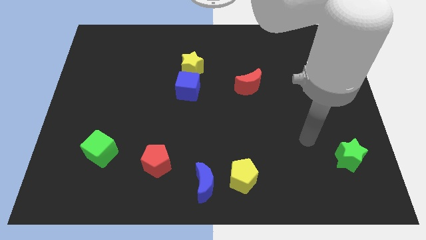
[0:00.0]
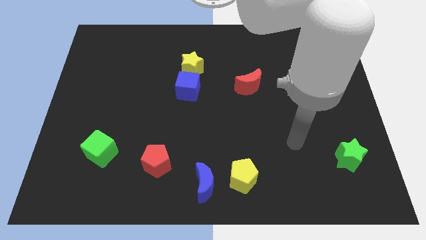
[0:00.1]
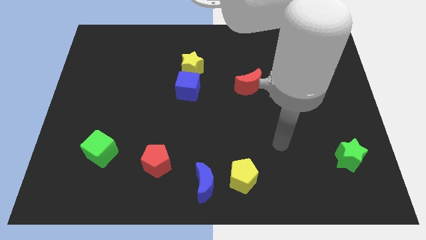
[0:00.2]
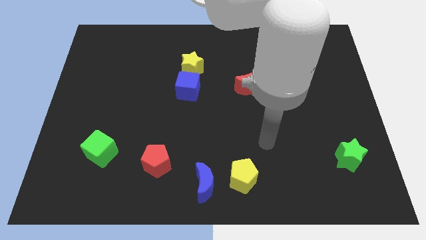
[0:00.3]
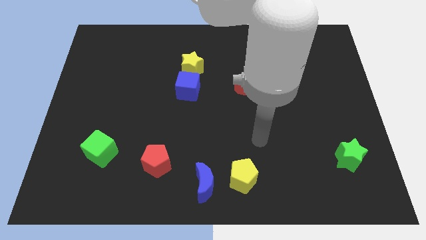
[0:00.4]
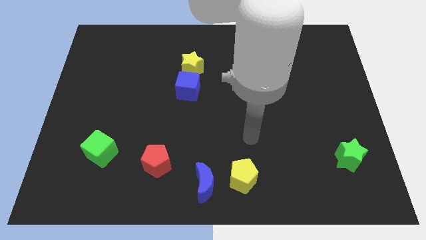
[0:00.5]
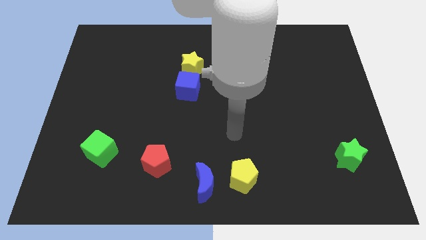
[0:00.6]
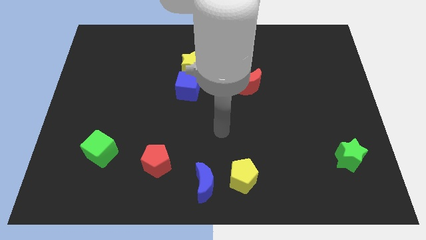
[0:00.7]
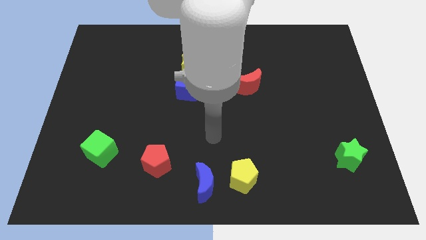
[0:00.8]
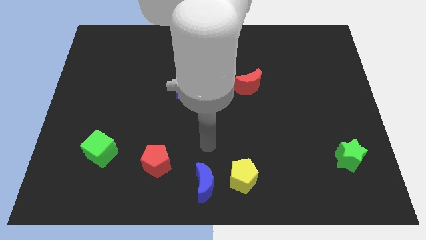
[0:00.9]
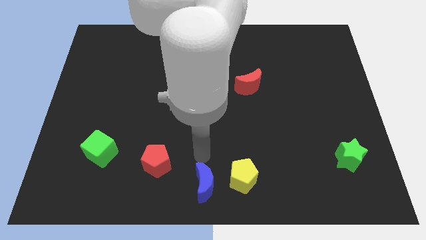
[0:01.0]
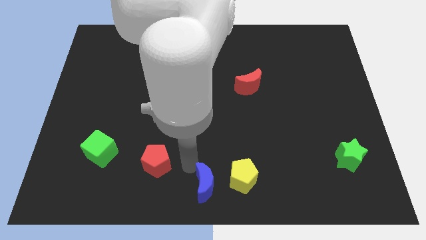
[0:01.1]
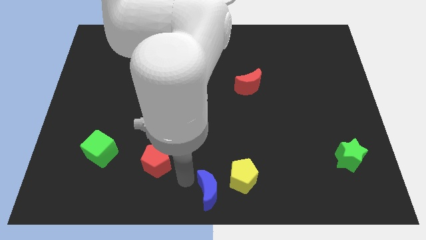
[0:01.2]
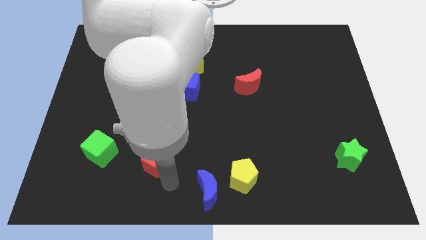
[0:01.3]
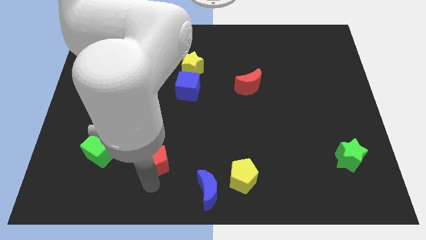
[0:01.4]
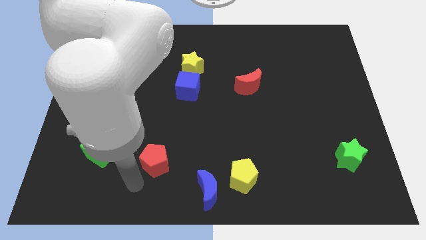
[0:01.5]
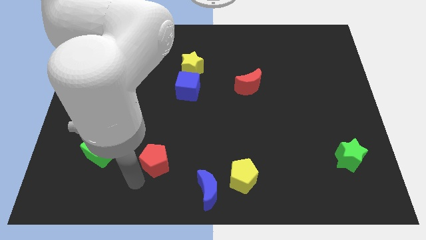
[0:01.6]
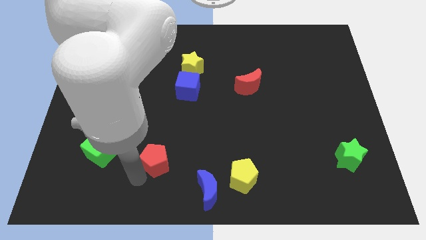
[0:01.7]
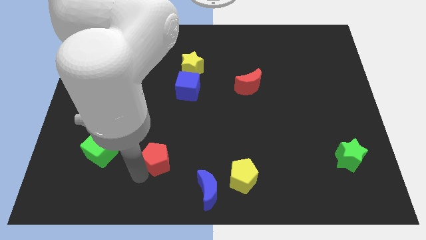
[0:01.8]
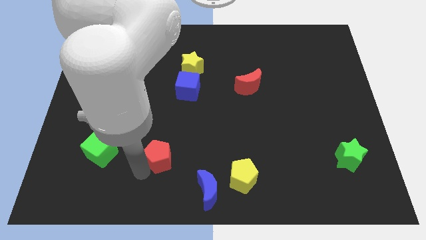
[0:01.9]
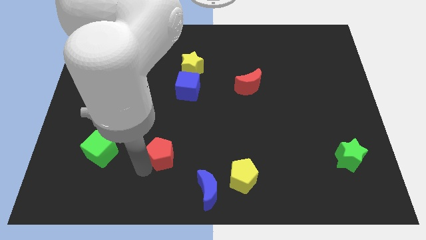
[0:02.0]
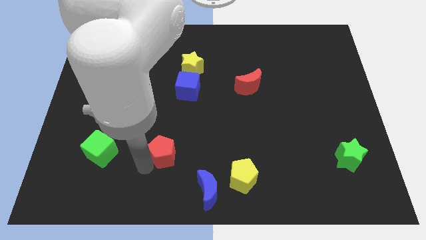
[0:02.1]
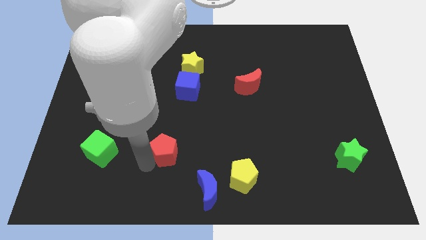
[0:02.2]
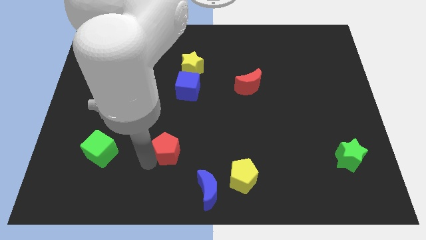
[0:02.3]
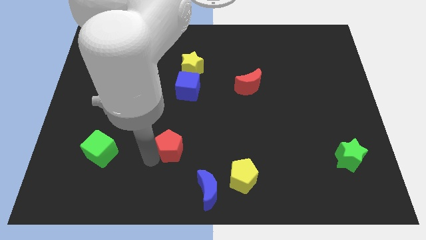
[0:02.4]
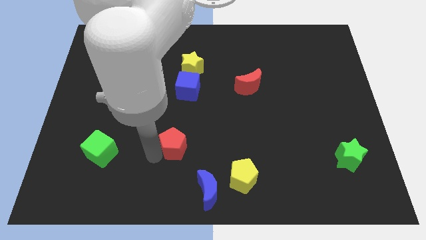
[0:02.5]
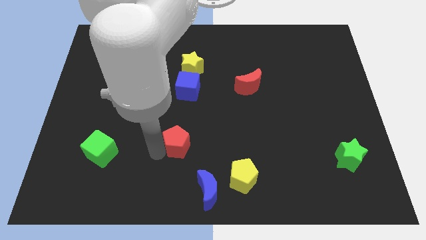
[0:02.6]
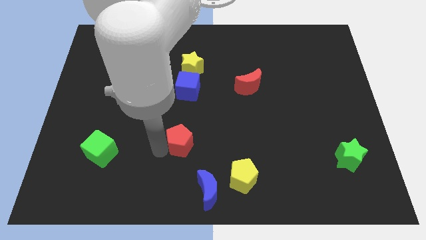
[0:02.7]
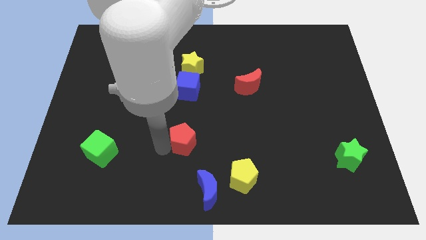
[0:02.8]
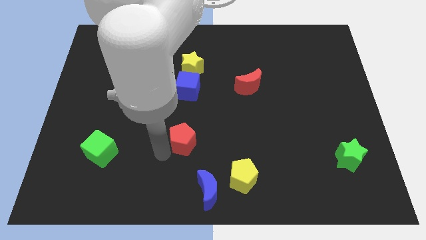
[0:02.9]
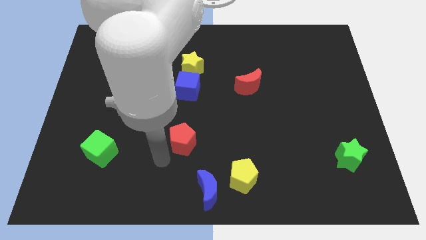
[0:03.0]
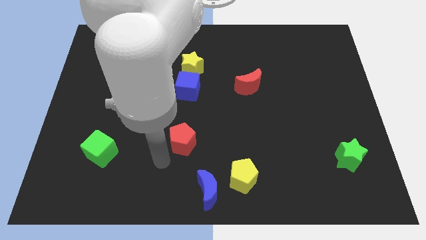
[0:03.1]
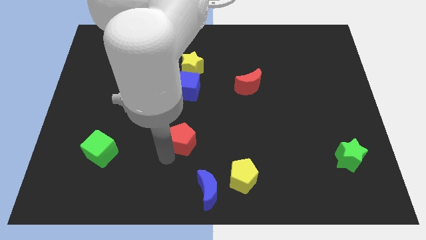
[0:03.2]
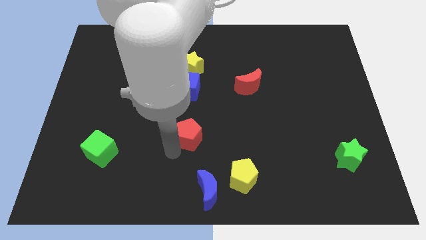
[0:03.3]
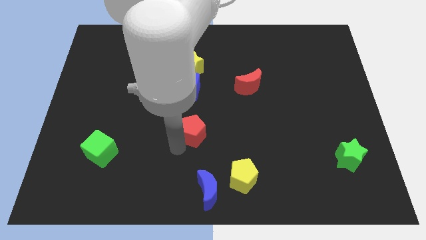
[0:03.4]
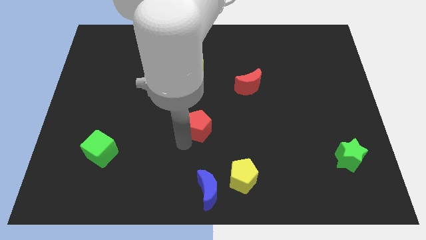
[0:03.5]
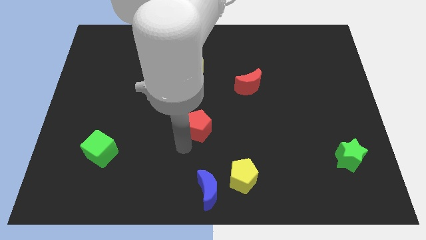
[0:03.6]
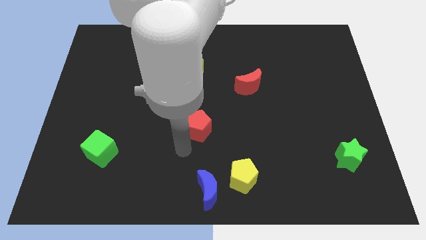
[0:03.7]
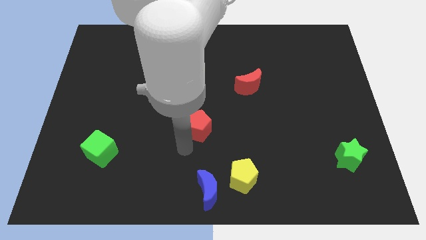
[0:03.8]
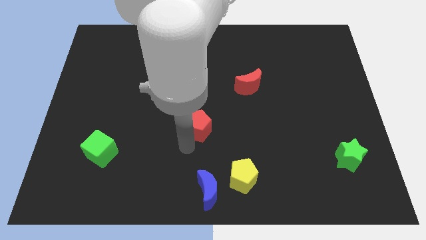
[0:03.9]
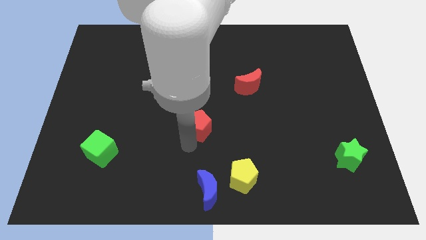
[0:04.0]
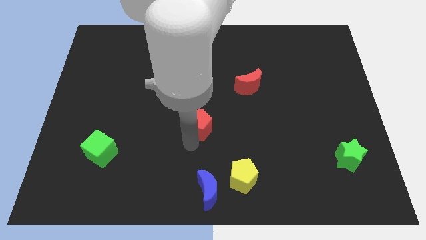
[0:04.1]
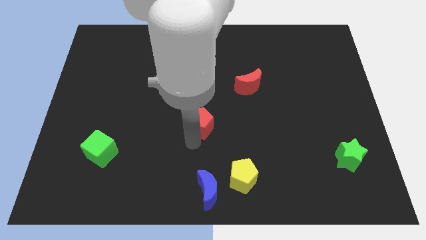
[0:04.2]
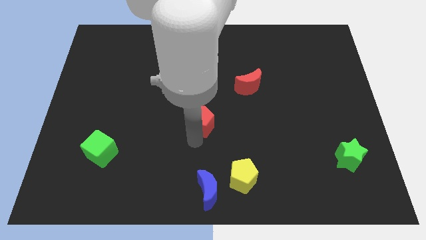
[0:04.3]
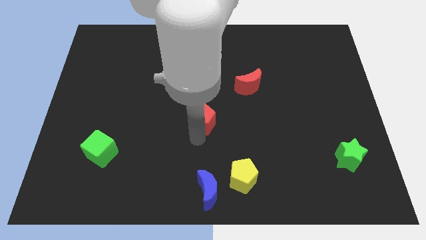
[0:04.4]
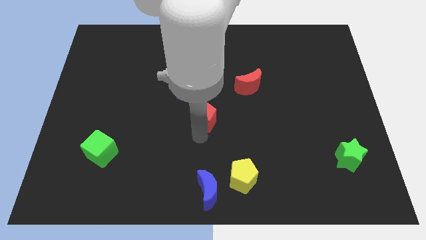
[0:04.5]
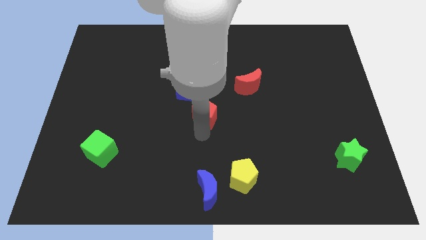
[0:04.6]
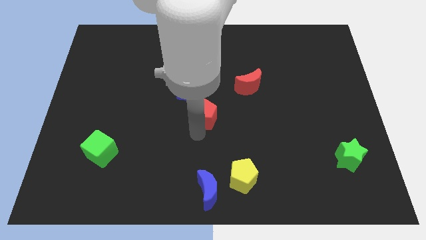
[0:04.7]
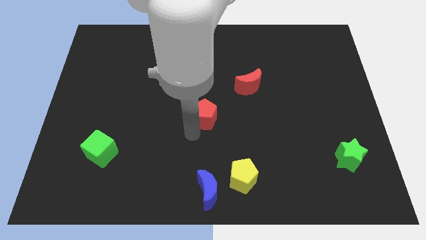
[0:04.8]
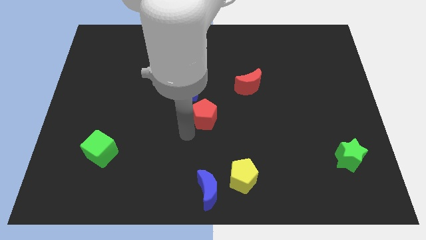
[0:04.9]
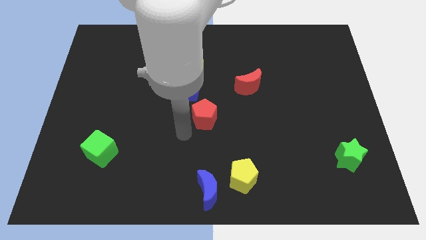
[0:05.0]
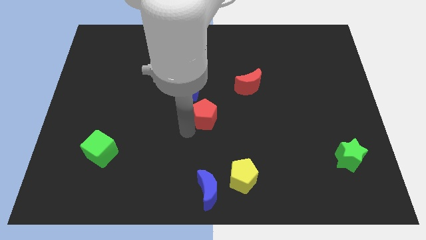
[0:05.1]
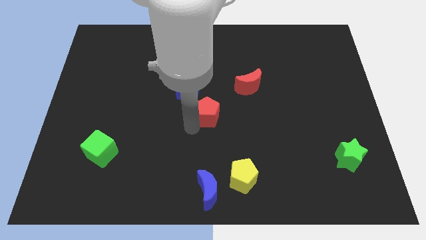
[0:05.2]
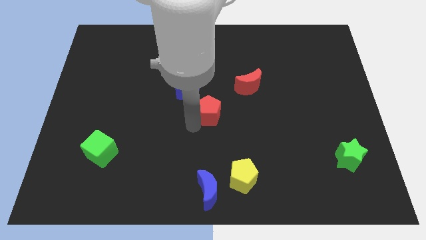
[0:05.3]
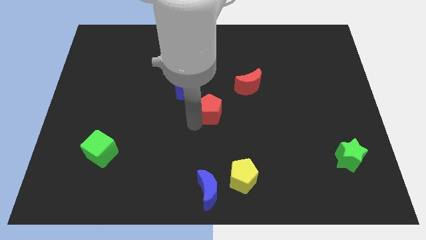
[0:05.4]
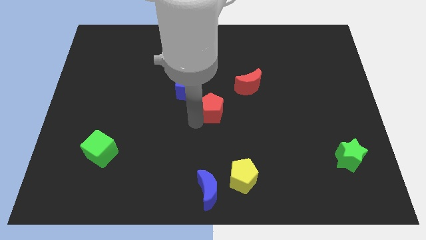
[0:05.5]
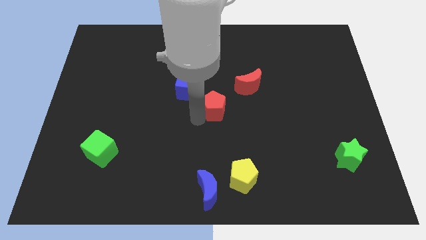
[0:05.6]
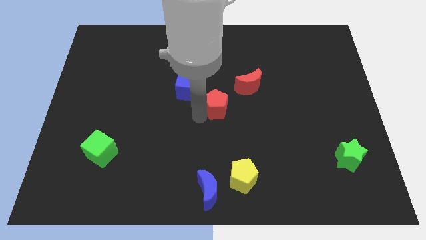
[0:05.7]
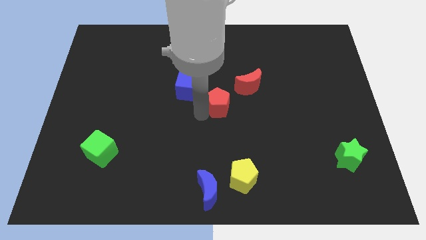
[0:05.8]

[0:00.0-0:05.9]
slide the red pentagon right of the blue cube
